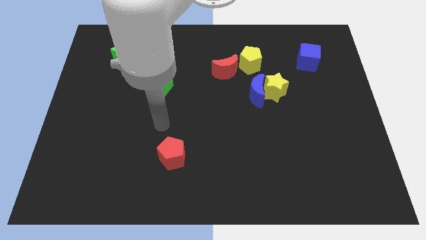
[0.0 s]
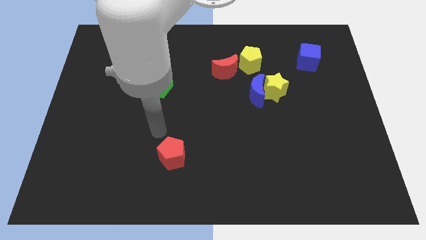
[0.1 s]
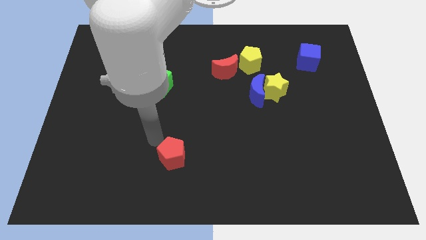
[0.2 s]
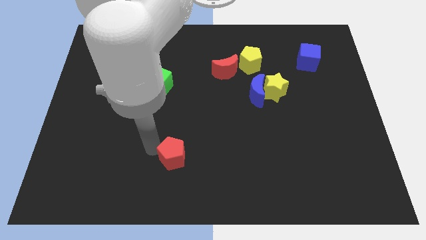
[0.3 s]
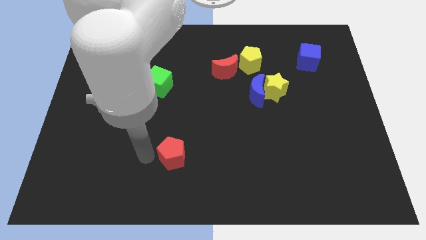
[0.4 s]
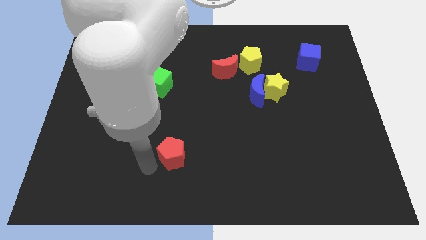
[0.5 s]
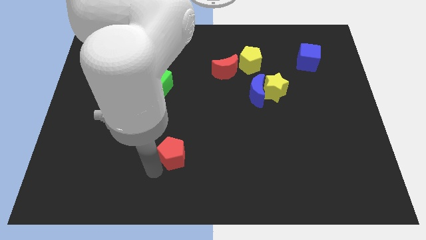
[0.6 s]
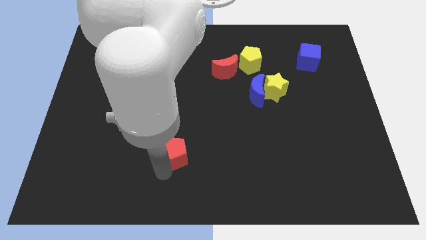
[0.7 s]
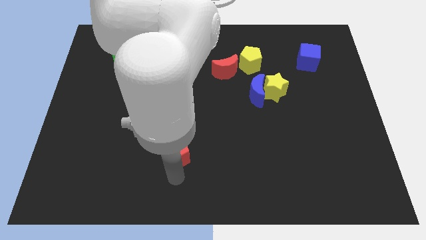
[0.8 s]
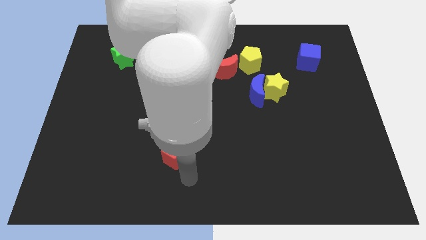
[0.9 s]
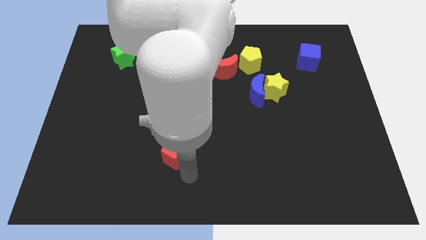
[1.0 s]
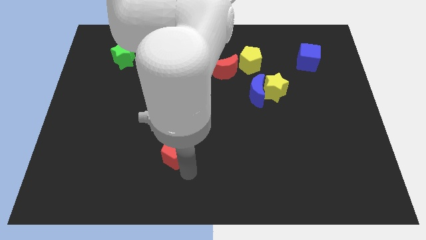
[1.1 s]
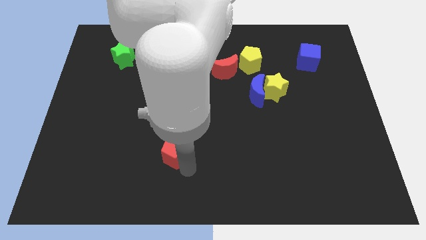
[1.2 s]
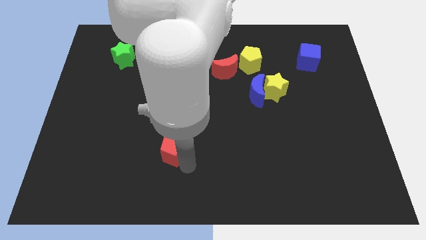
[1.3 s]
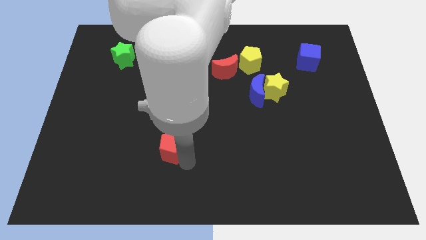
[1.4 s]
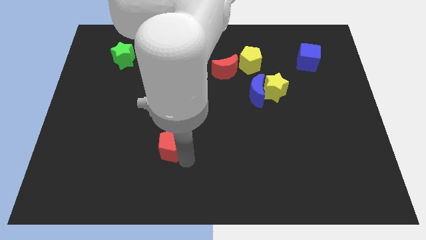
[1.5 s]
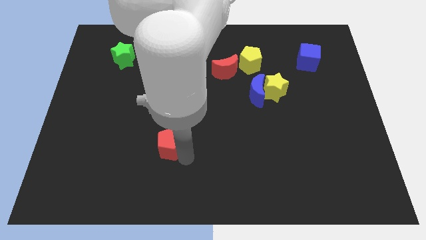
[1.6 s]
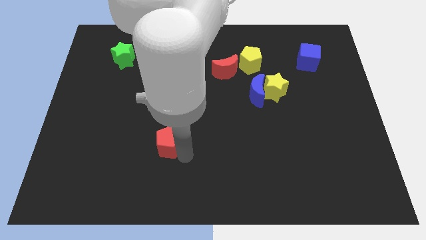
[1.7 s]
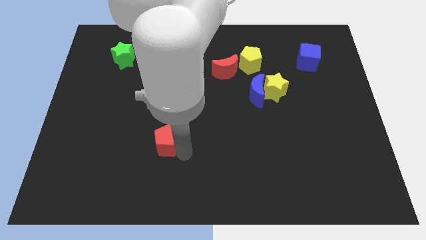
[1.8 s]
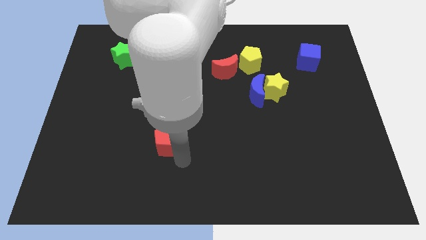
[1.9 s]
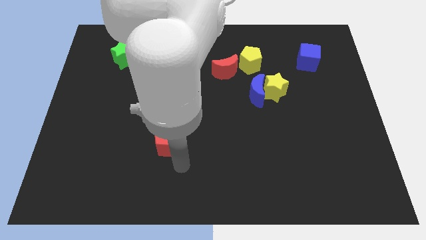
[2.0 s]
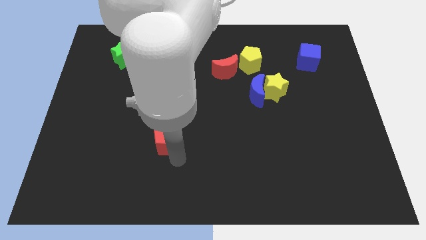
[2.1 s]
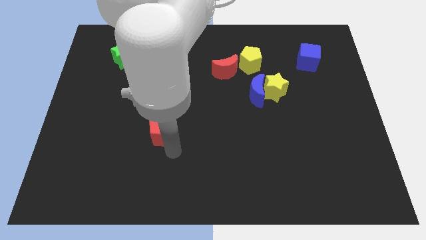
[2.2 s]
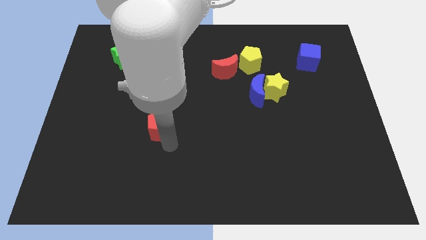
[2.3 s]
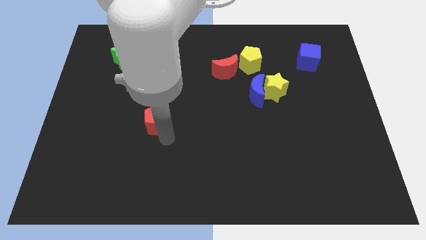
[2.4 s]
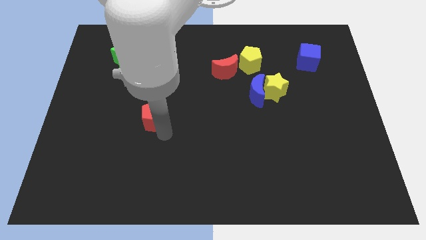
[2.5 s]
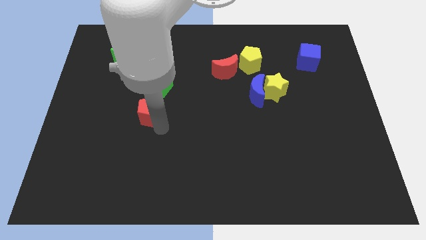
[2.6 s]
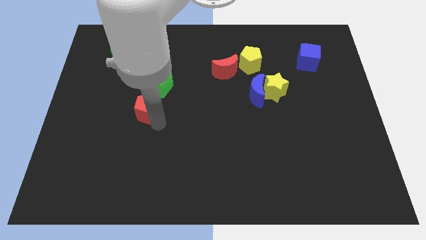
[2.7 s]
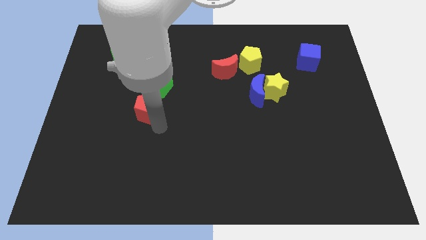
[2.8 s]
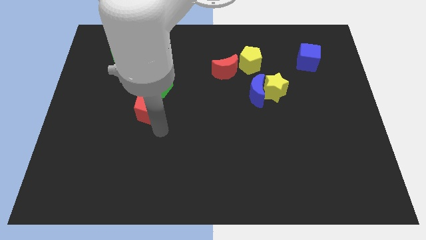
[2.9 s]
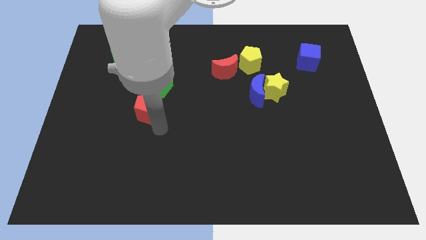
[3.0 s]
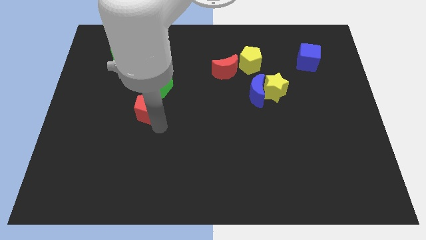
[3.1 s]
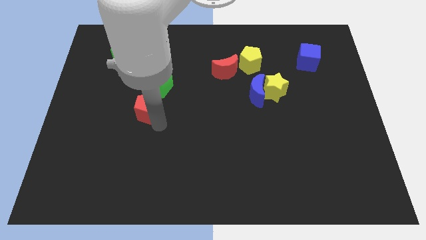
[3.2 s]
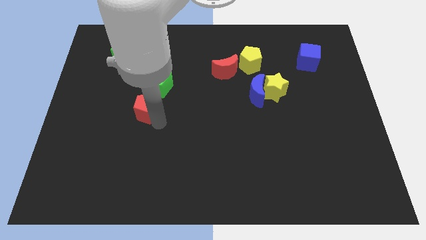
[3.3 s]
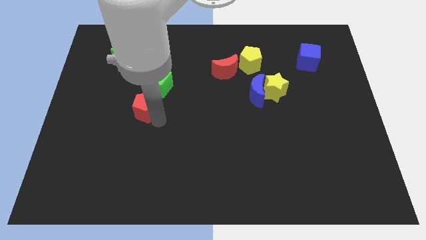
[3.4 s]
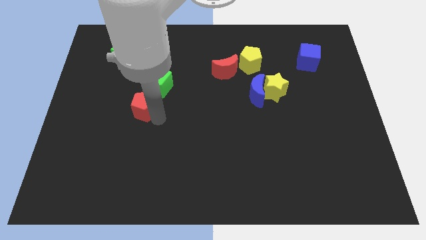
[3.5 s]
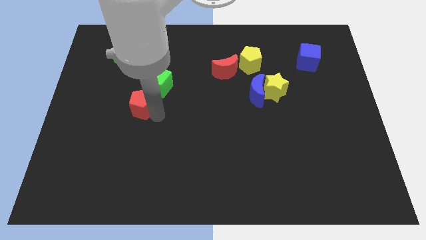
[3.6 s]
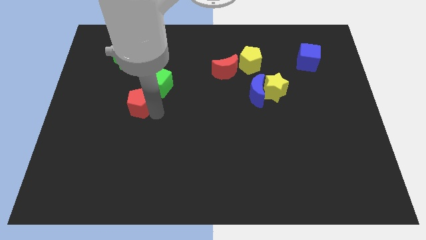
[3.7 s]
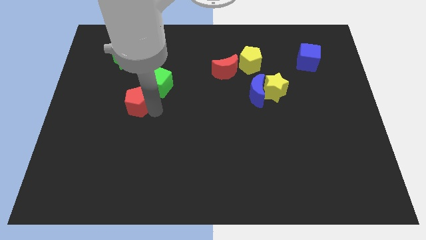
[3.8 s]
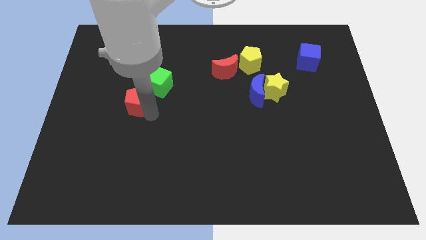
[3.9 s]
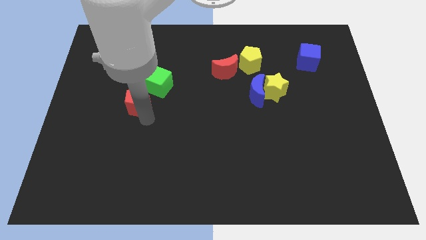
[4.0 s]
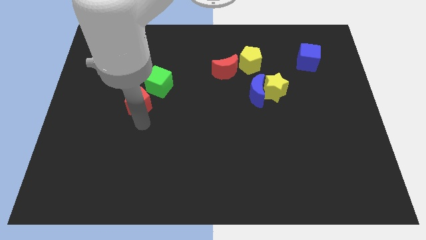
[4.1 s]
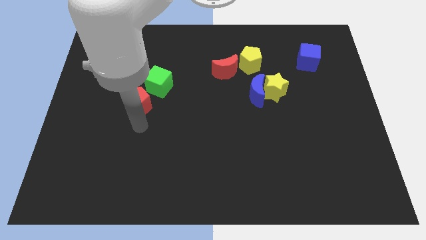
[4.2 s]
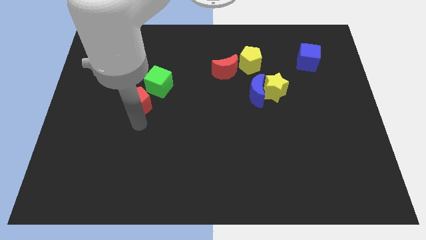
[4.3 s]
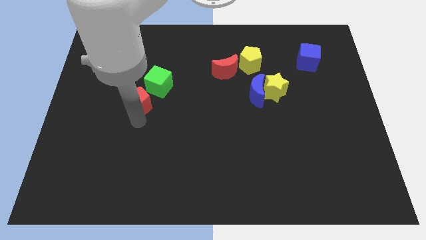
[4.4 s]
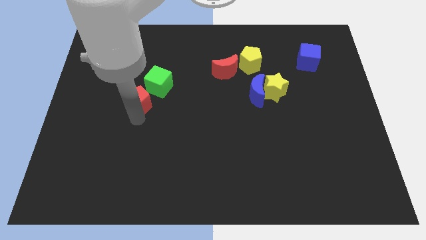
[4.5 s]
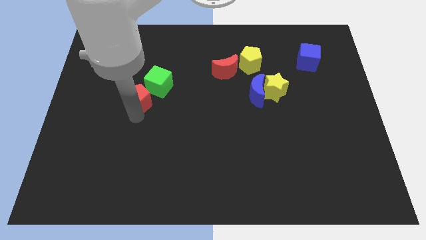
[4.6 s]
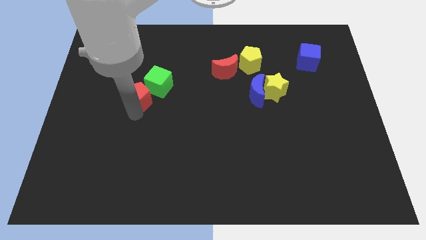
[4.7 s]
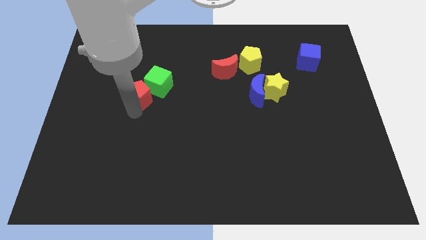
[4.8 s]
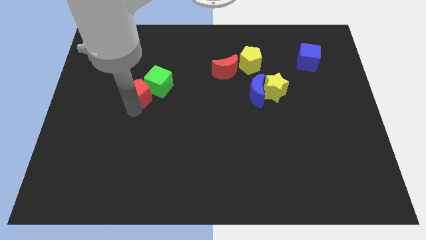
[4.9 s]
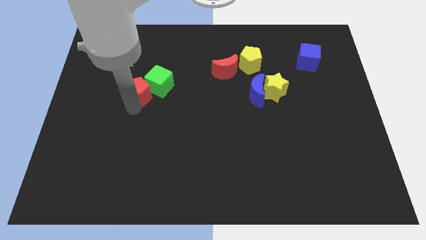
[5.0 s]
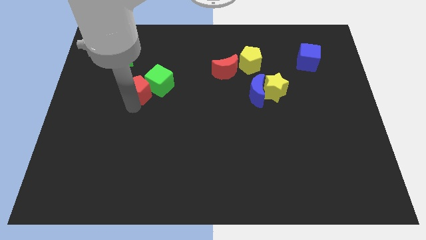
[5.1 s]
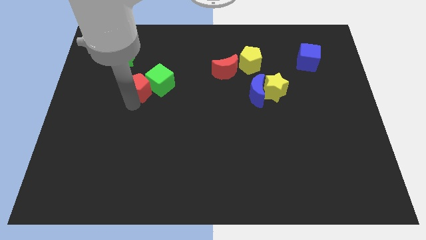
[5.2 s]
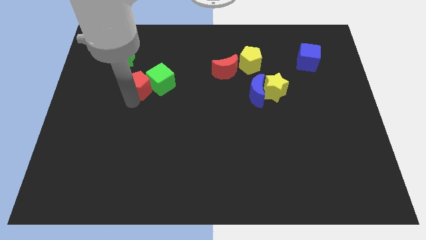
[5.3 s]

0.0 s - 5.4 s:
slide the red pentagon diagonally down and to the right of the green star

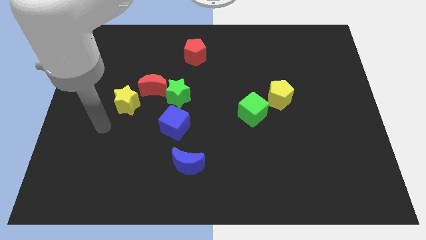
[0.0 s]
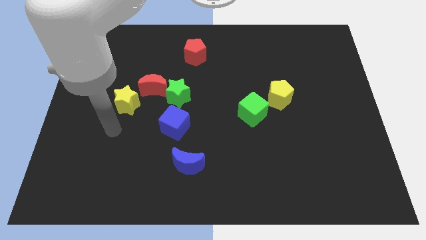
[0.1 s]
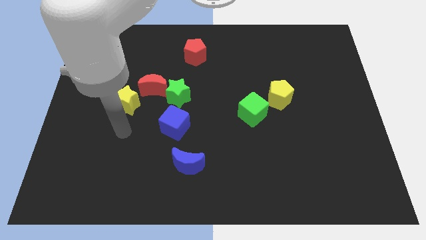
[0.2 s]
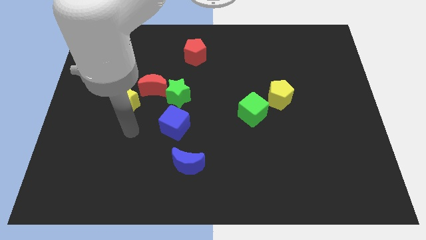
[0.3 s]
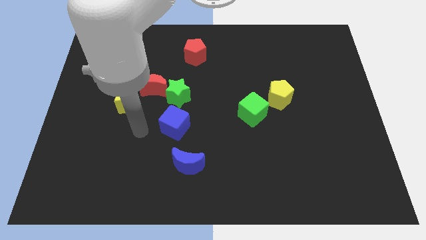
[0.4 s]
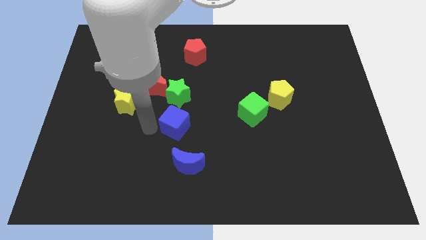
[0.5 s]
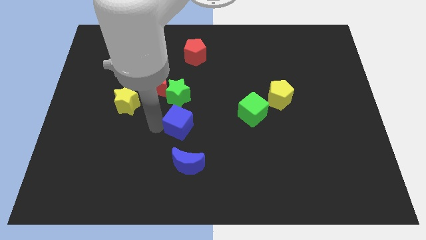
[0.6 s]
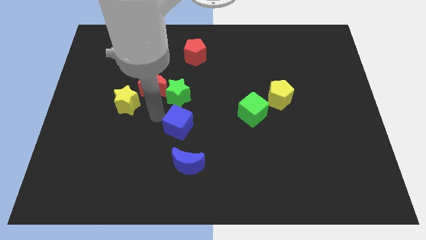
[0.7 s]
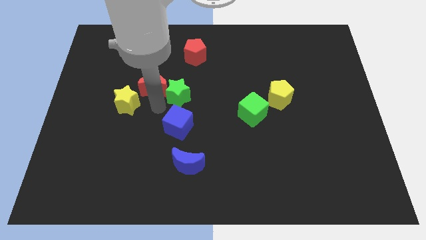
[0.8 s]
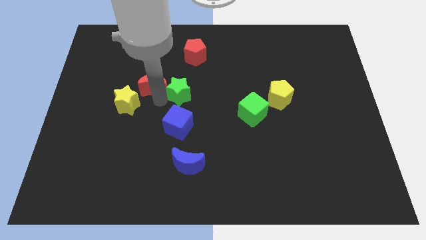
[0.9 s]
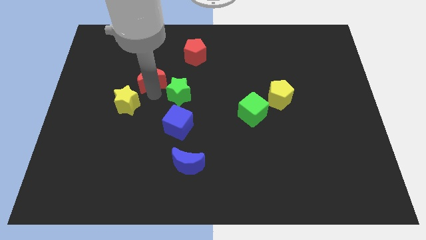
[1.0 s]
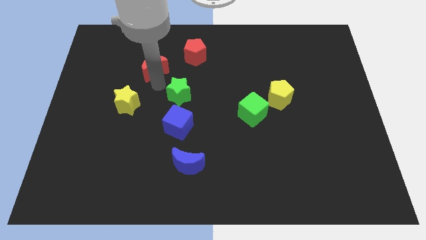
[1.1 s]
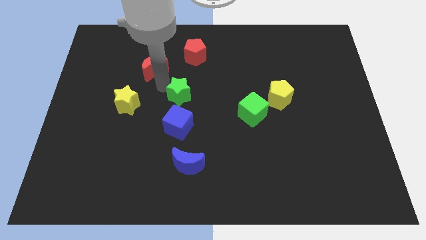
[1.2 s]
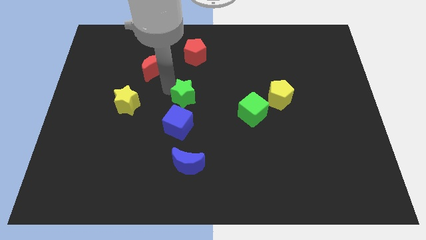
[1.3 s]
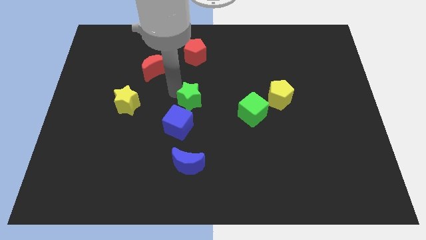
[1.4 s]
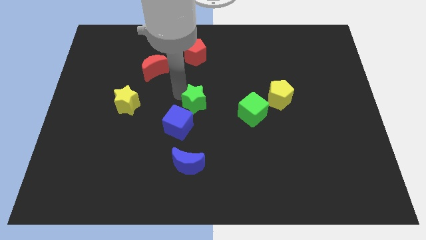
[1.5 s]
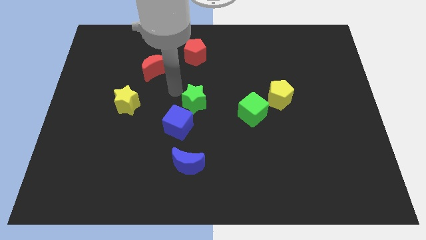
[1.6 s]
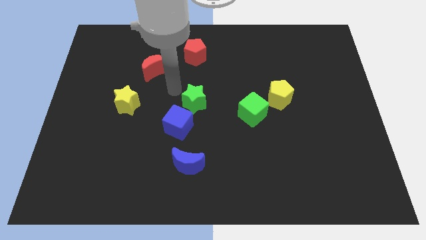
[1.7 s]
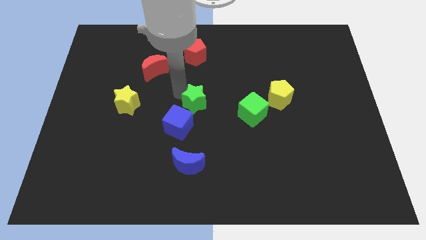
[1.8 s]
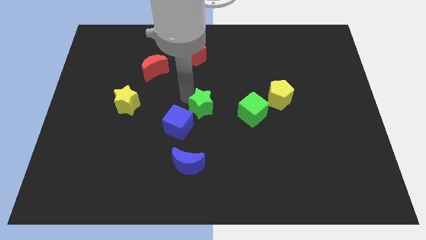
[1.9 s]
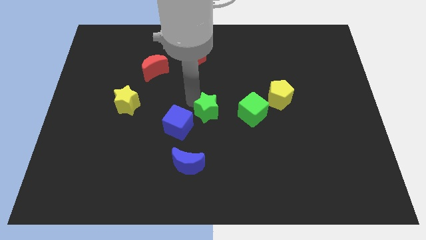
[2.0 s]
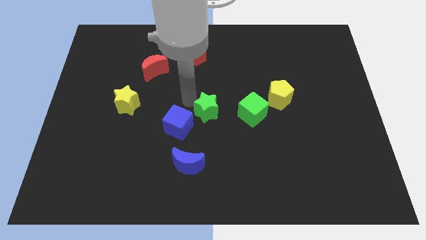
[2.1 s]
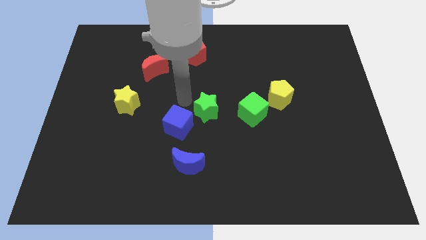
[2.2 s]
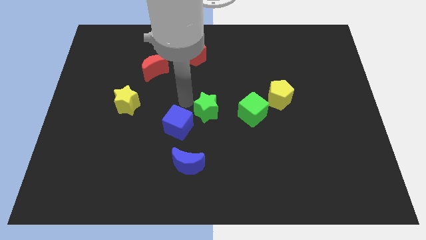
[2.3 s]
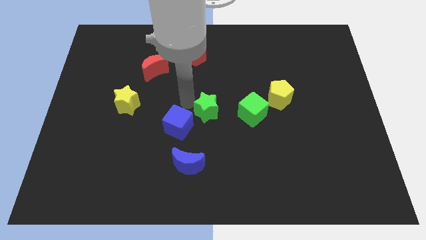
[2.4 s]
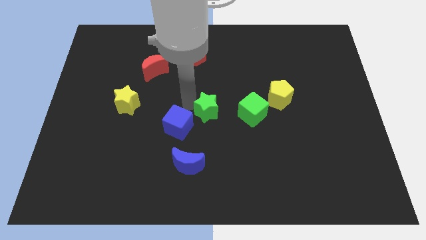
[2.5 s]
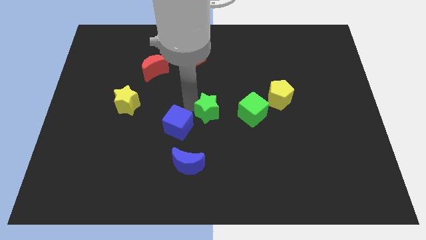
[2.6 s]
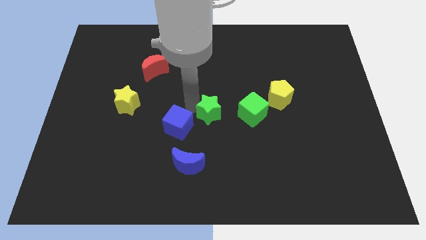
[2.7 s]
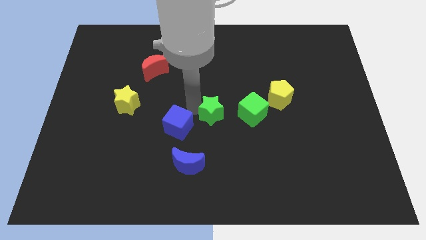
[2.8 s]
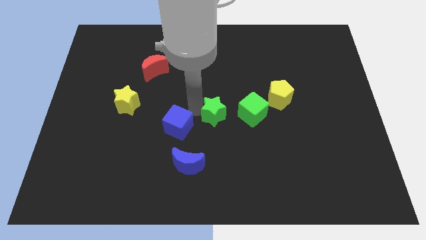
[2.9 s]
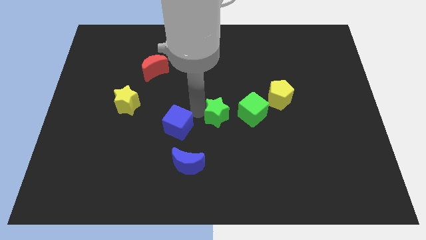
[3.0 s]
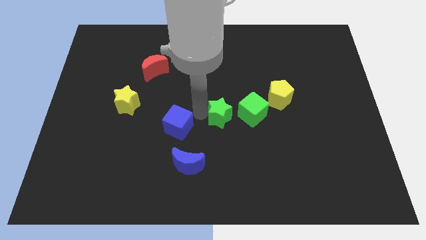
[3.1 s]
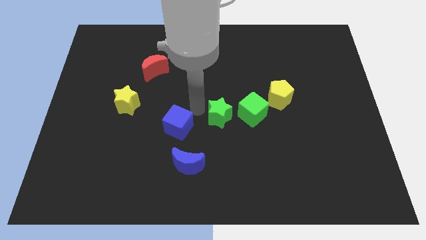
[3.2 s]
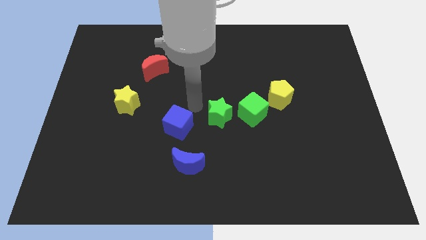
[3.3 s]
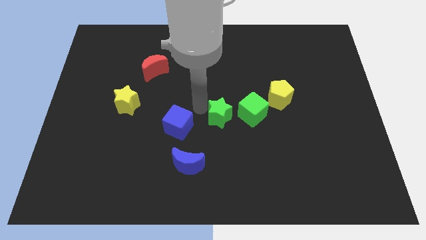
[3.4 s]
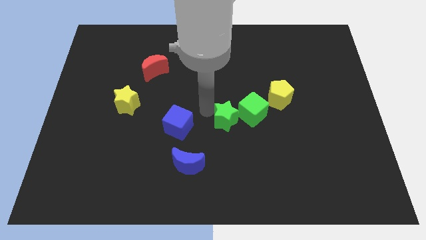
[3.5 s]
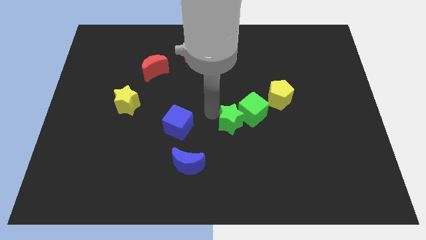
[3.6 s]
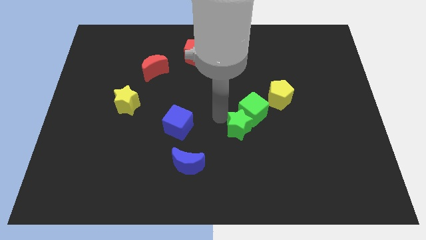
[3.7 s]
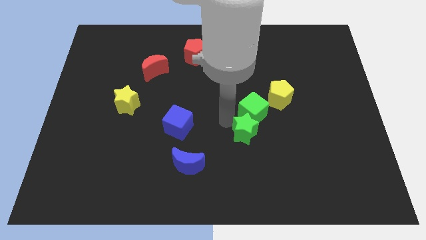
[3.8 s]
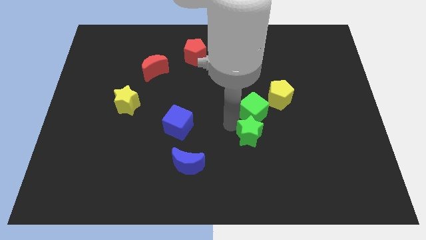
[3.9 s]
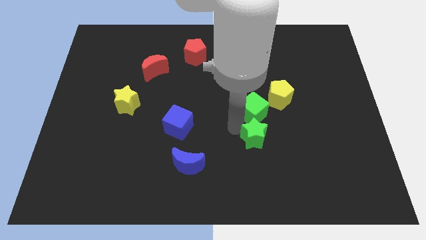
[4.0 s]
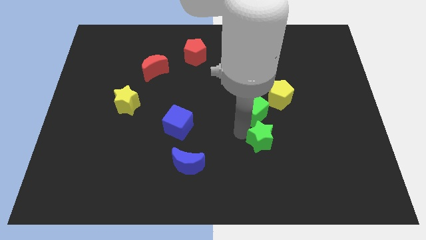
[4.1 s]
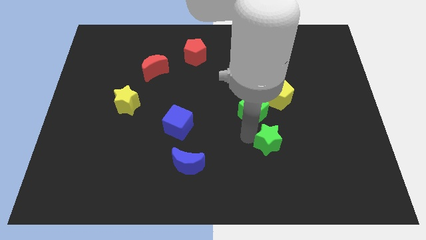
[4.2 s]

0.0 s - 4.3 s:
put the green star to the bottom side of the yellow pentagon
